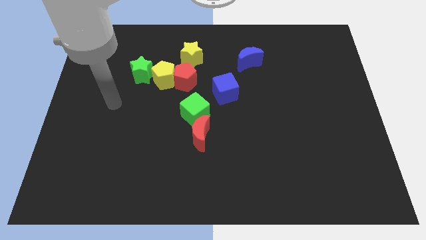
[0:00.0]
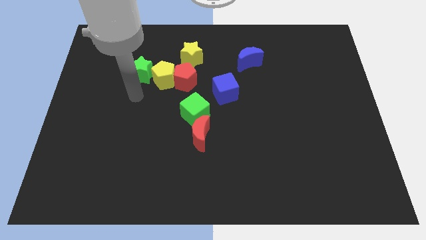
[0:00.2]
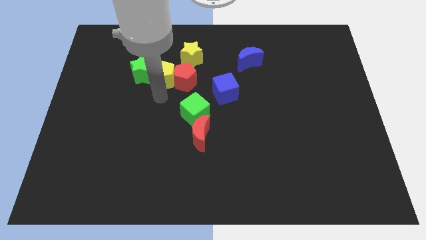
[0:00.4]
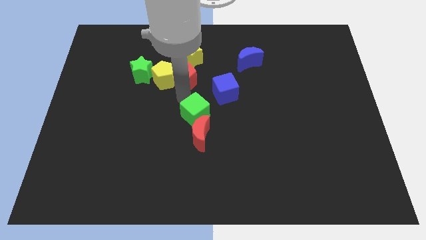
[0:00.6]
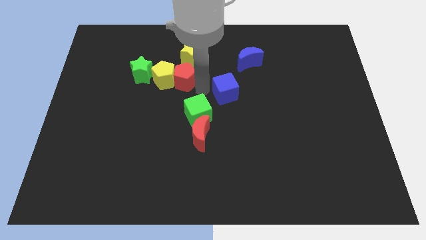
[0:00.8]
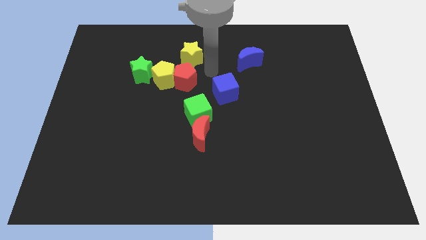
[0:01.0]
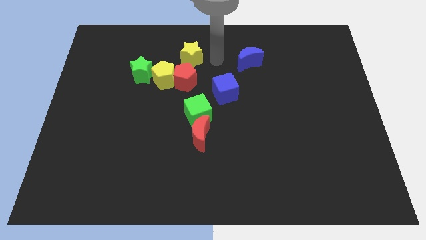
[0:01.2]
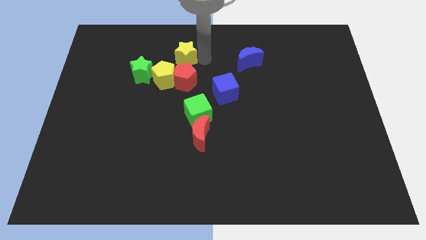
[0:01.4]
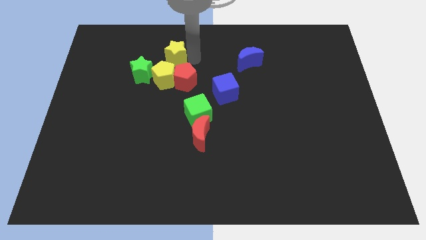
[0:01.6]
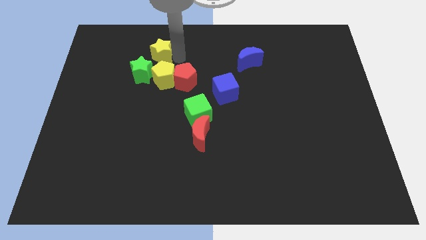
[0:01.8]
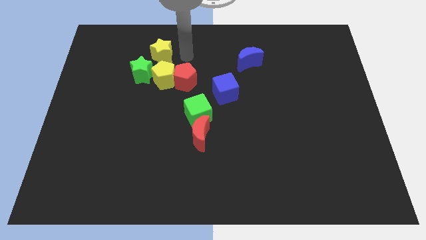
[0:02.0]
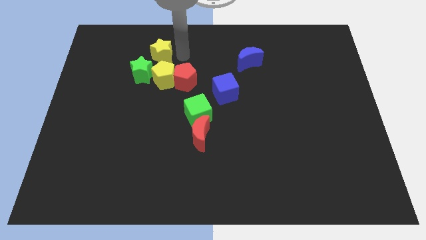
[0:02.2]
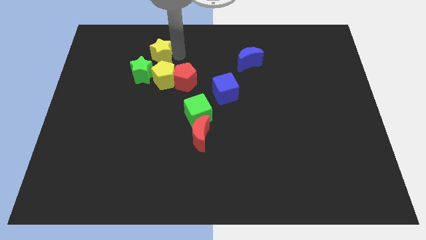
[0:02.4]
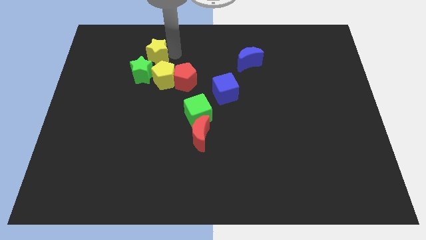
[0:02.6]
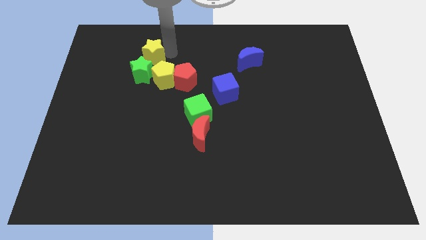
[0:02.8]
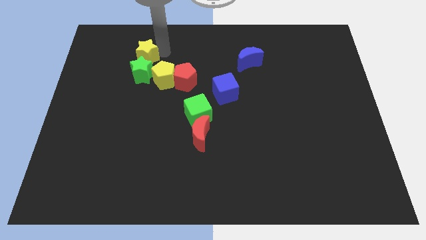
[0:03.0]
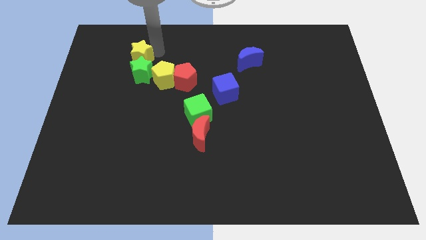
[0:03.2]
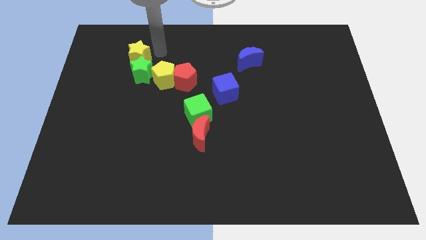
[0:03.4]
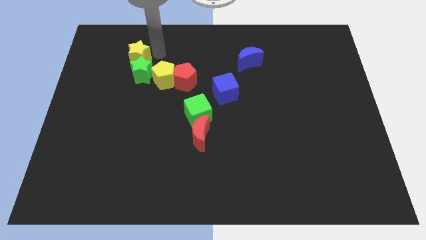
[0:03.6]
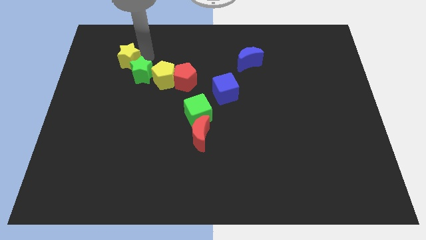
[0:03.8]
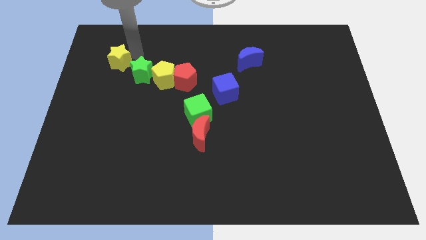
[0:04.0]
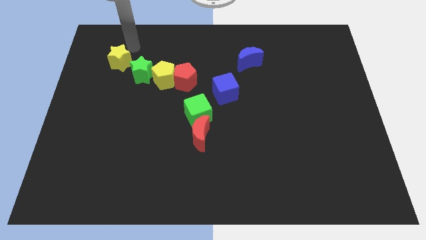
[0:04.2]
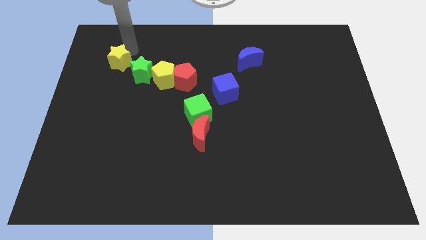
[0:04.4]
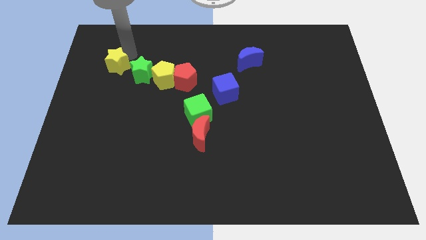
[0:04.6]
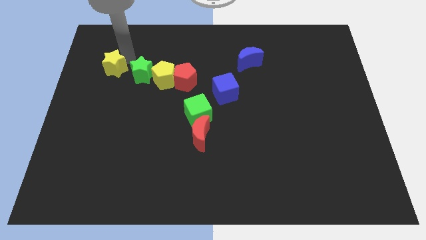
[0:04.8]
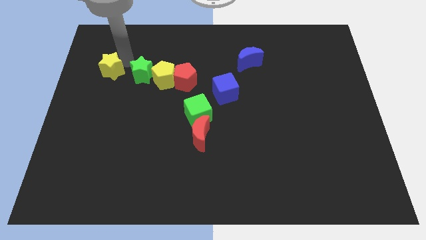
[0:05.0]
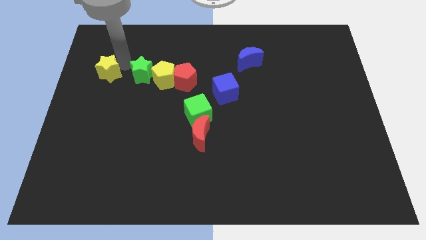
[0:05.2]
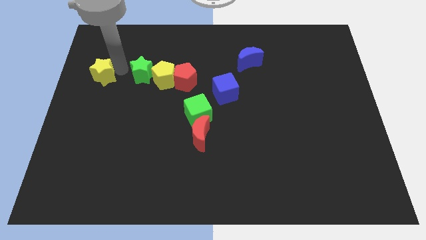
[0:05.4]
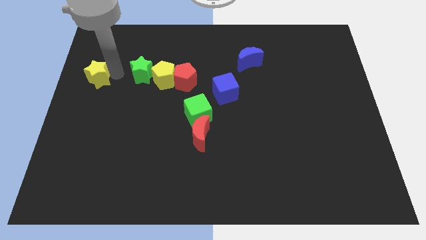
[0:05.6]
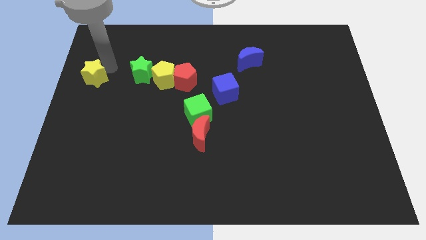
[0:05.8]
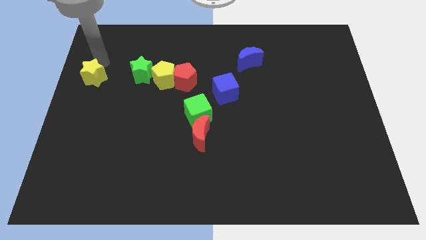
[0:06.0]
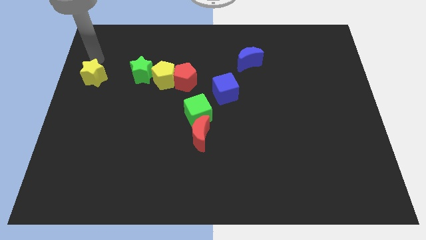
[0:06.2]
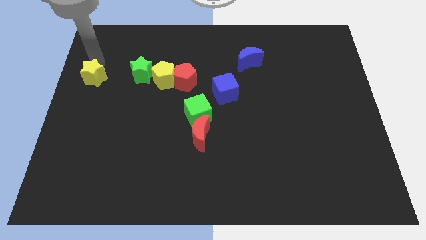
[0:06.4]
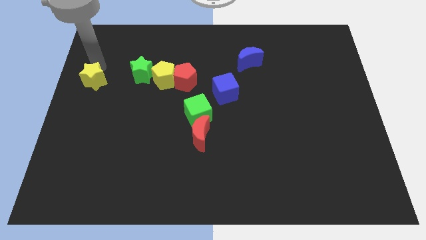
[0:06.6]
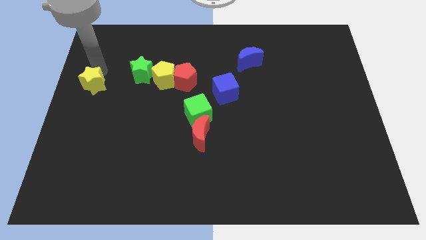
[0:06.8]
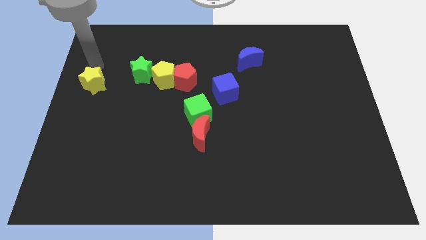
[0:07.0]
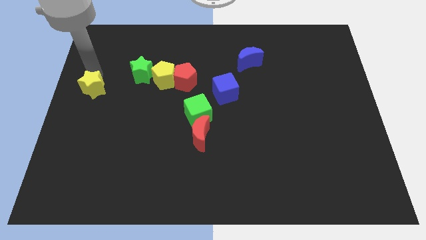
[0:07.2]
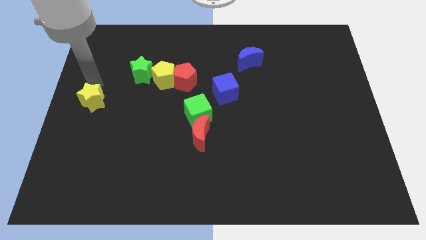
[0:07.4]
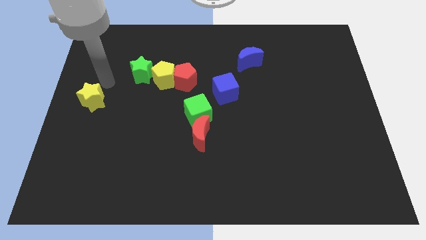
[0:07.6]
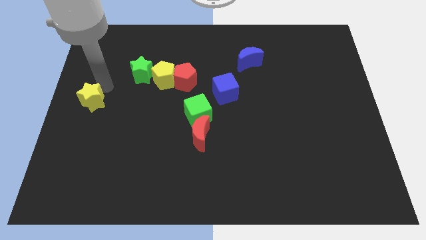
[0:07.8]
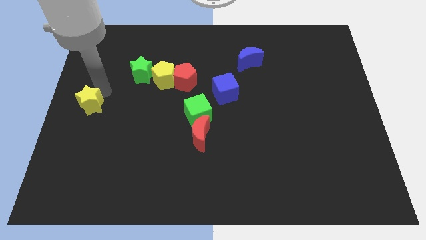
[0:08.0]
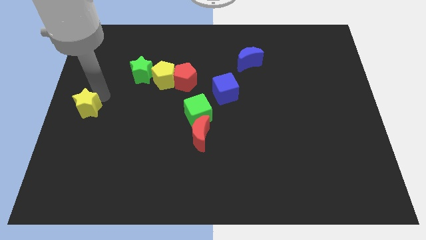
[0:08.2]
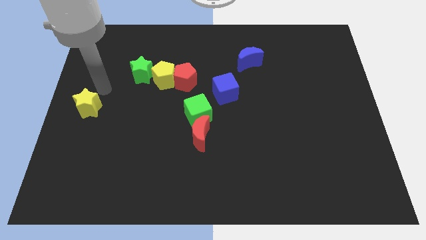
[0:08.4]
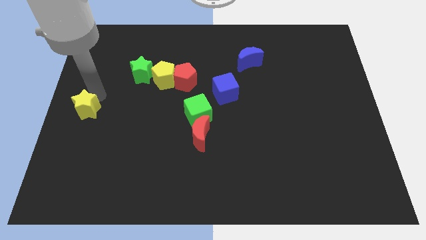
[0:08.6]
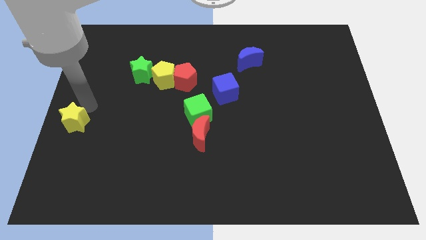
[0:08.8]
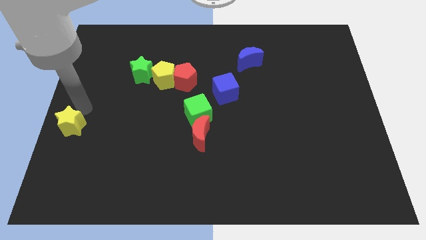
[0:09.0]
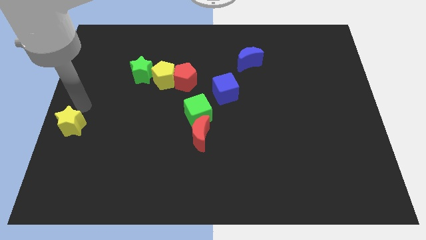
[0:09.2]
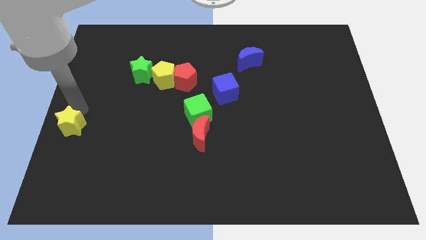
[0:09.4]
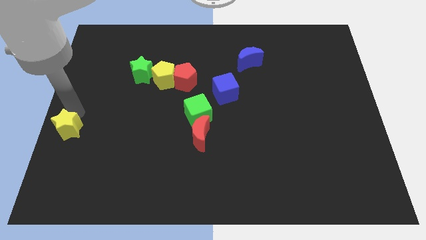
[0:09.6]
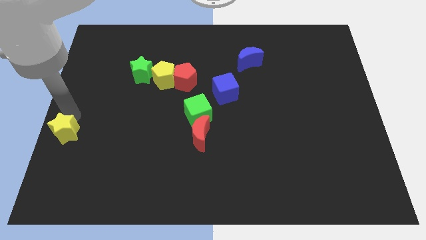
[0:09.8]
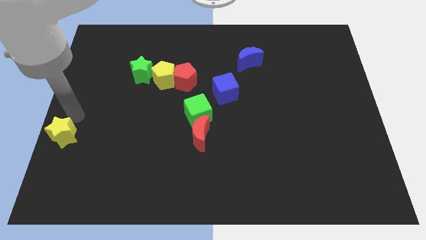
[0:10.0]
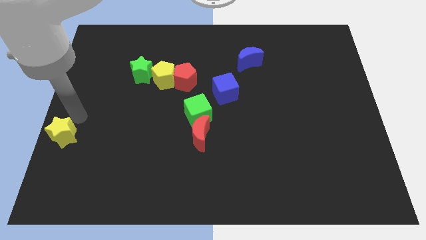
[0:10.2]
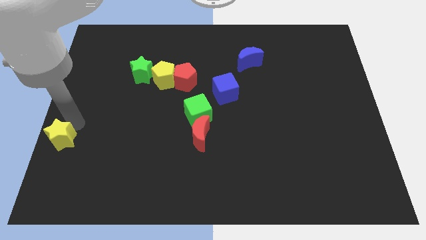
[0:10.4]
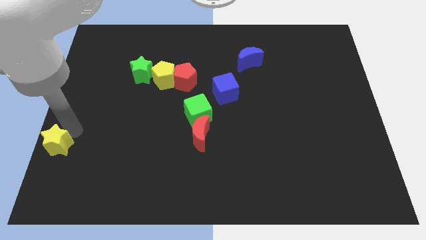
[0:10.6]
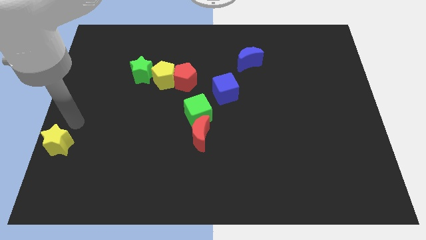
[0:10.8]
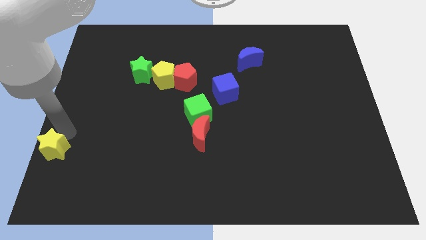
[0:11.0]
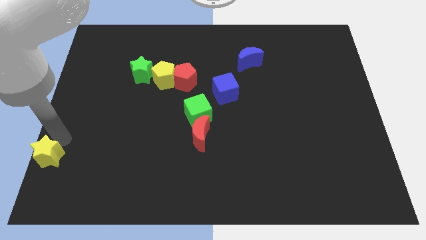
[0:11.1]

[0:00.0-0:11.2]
move the yellow star to the bottom left of the board
